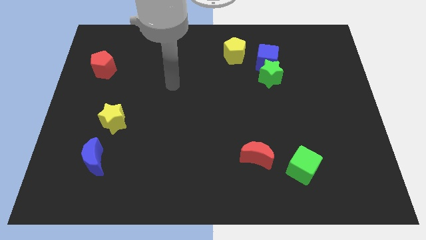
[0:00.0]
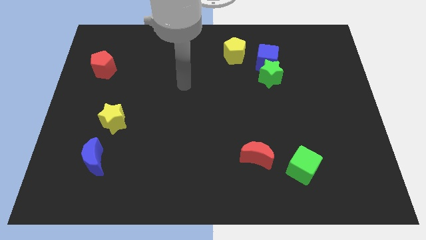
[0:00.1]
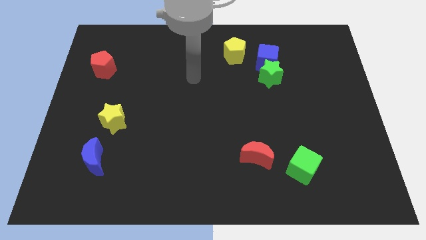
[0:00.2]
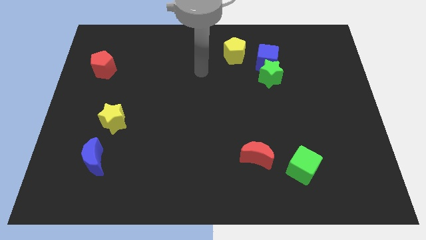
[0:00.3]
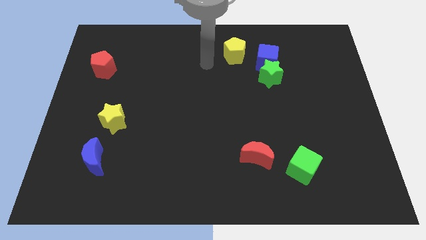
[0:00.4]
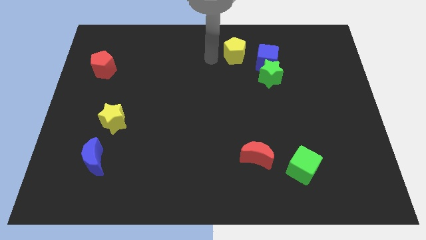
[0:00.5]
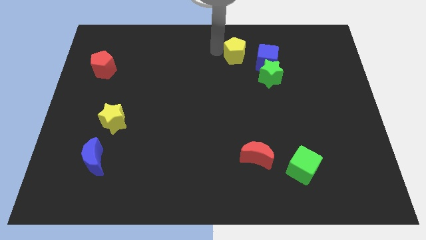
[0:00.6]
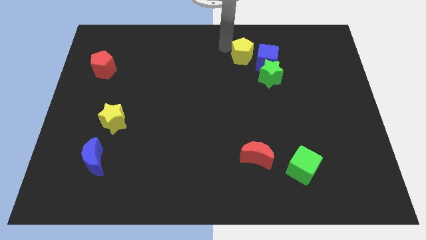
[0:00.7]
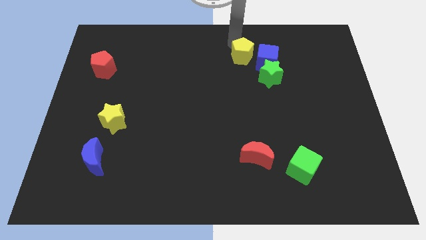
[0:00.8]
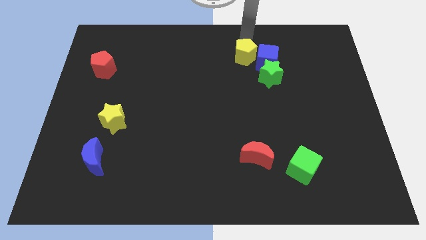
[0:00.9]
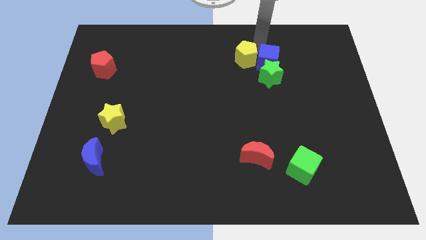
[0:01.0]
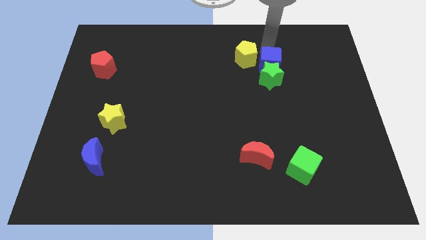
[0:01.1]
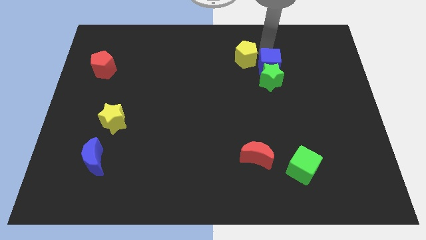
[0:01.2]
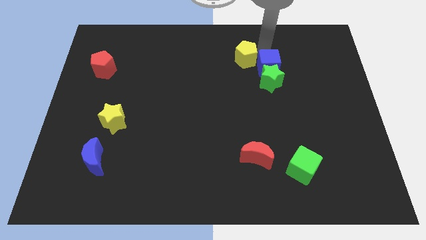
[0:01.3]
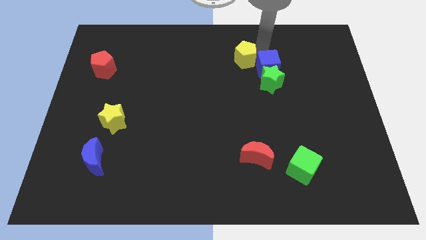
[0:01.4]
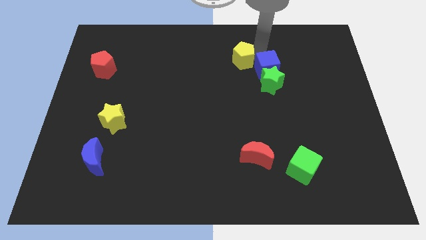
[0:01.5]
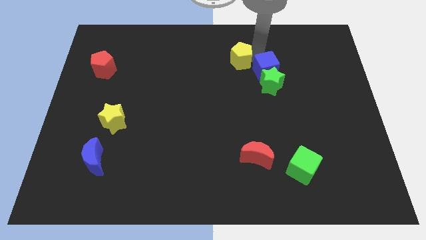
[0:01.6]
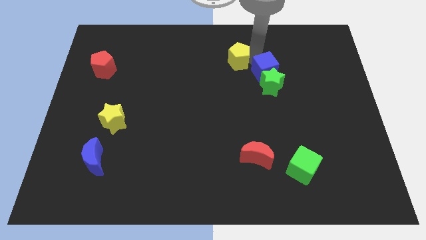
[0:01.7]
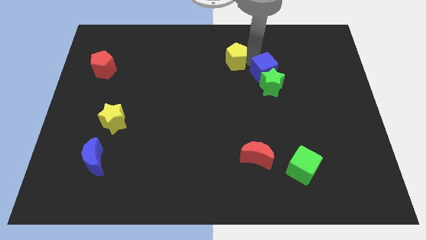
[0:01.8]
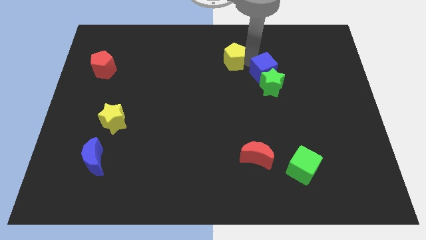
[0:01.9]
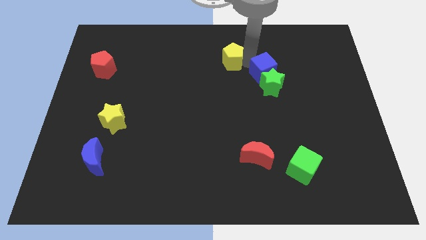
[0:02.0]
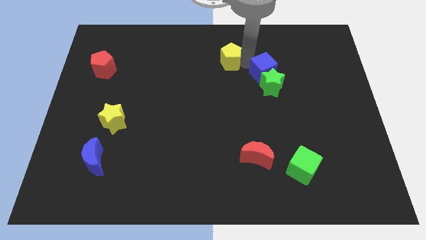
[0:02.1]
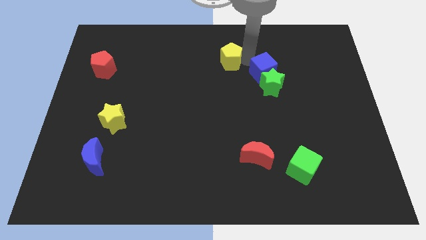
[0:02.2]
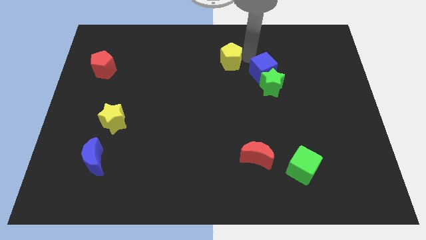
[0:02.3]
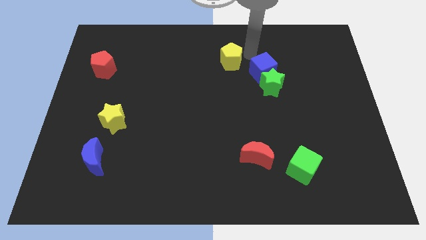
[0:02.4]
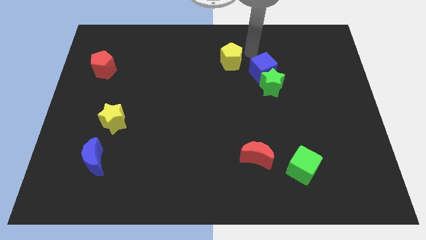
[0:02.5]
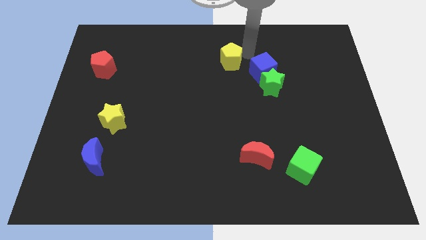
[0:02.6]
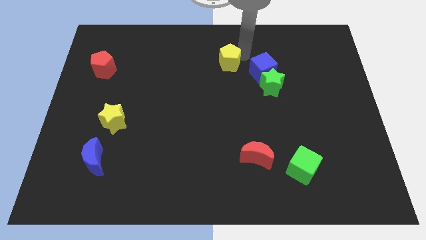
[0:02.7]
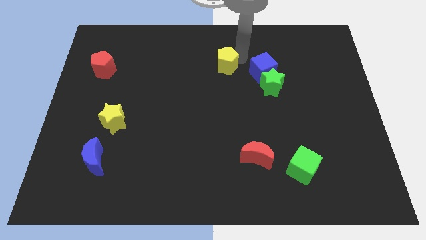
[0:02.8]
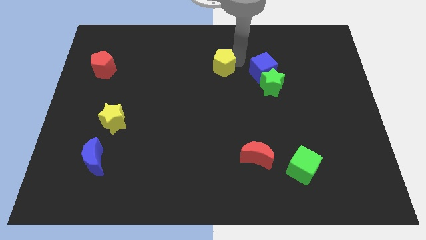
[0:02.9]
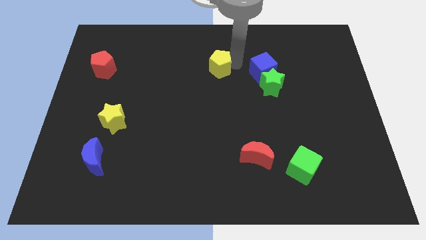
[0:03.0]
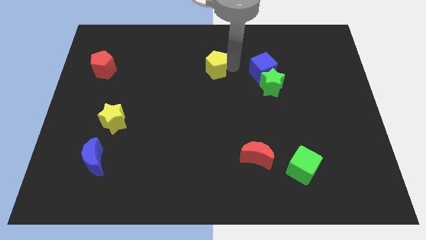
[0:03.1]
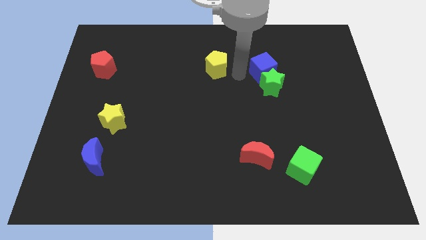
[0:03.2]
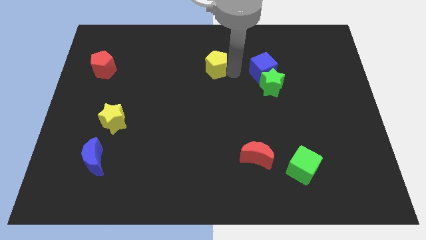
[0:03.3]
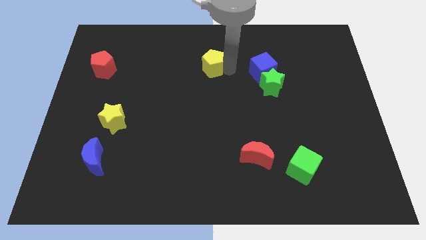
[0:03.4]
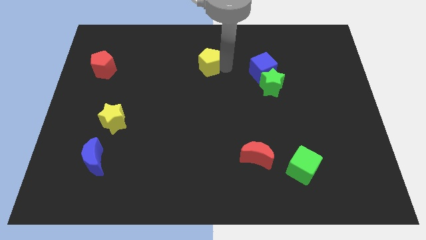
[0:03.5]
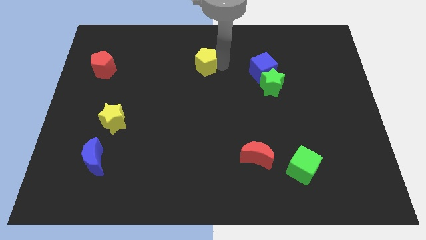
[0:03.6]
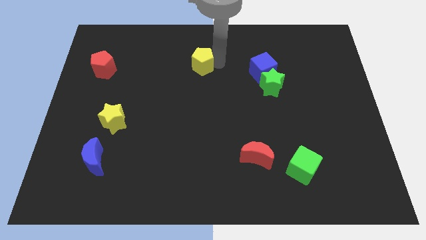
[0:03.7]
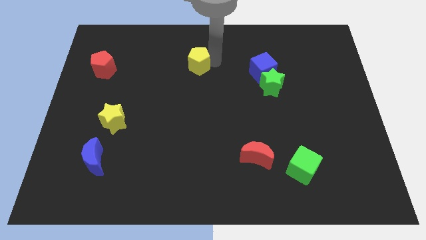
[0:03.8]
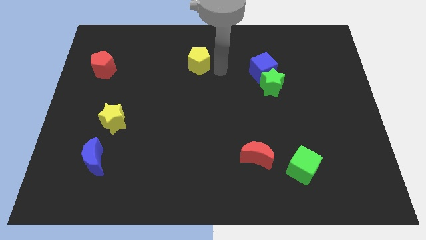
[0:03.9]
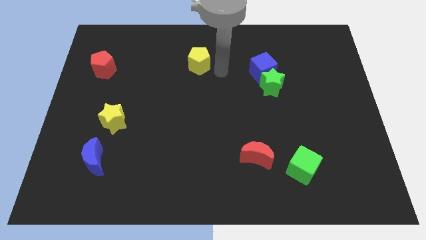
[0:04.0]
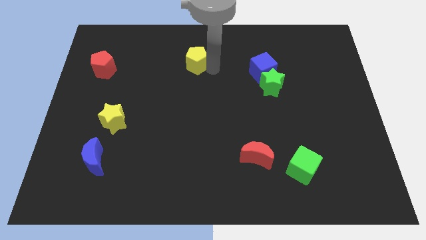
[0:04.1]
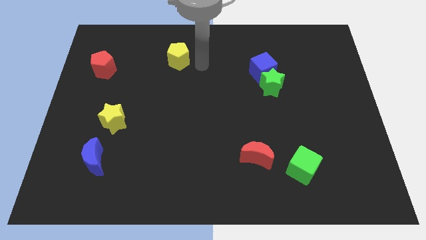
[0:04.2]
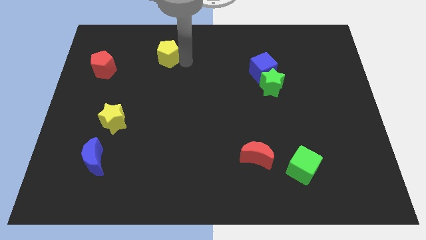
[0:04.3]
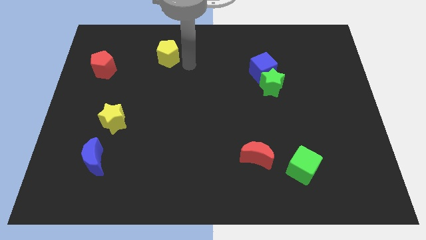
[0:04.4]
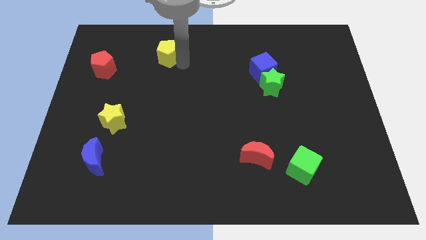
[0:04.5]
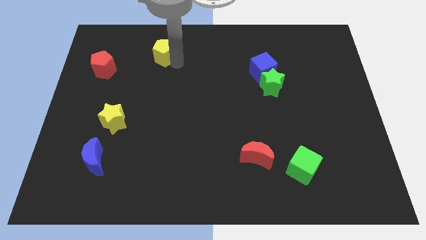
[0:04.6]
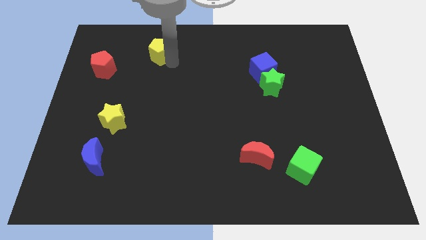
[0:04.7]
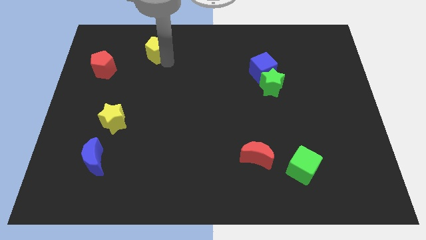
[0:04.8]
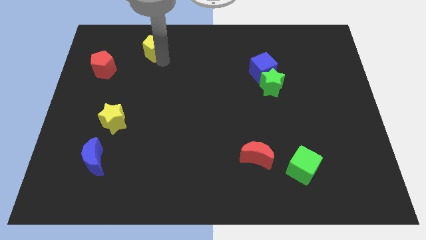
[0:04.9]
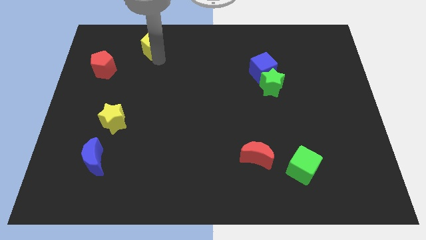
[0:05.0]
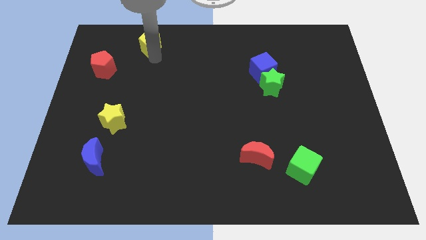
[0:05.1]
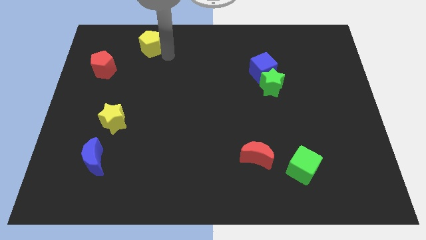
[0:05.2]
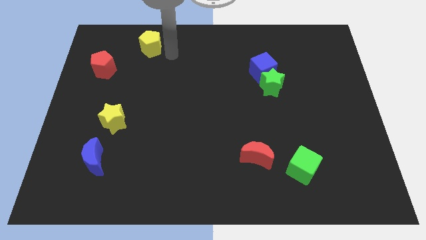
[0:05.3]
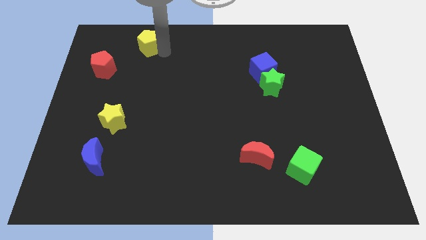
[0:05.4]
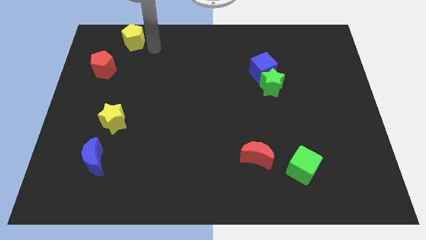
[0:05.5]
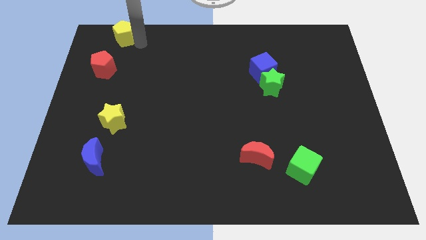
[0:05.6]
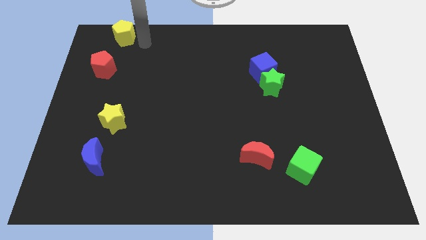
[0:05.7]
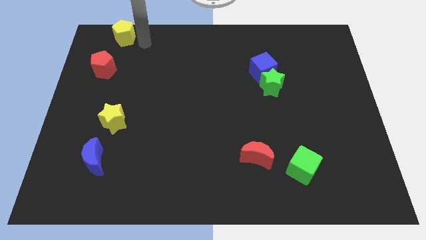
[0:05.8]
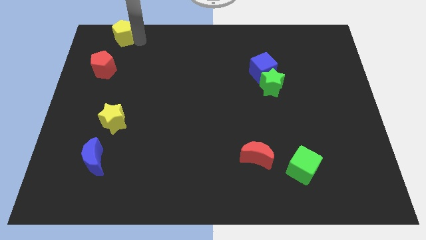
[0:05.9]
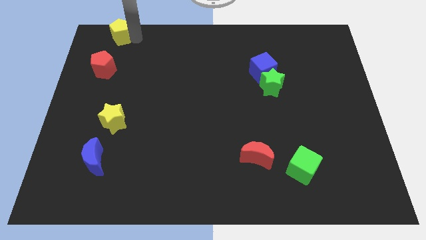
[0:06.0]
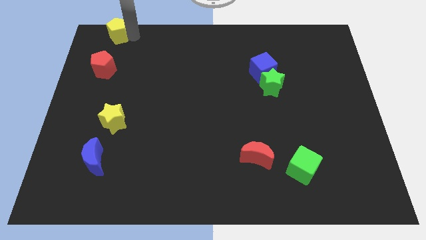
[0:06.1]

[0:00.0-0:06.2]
push the yellow pentagon to the top left corner
